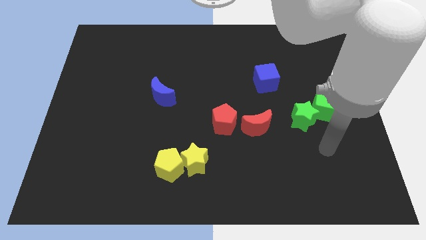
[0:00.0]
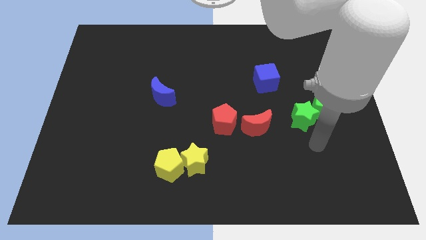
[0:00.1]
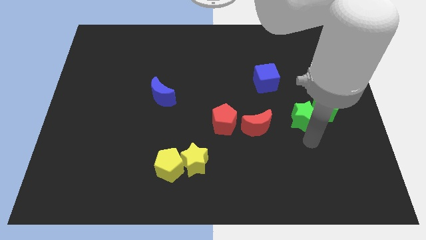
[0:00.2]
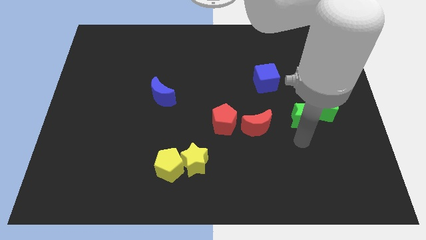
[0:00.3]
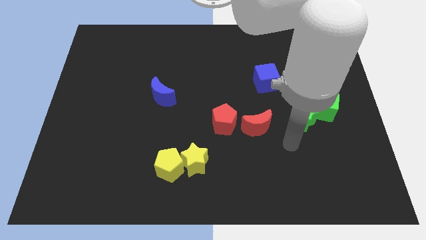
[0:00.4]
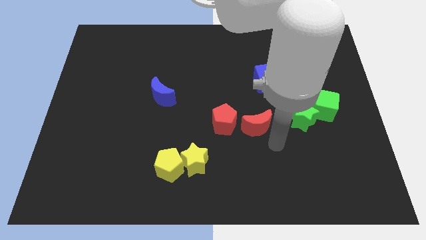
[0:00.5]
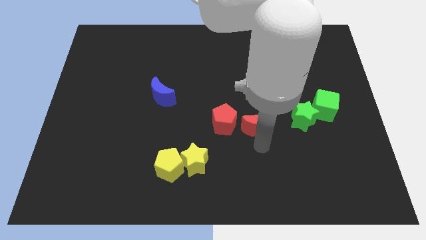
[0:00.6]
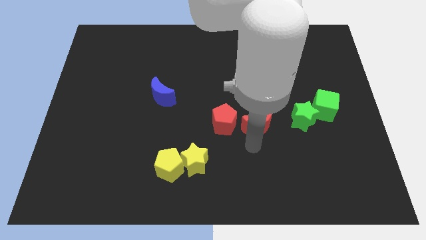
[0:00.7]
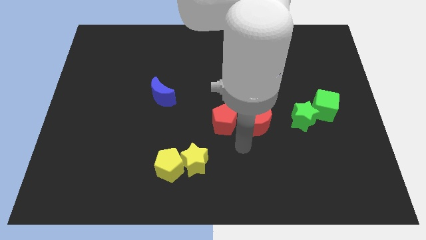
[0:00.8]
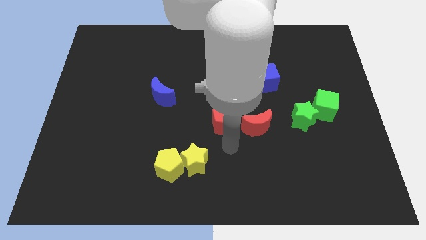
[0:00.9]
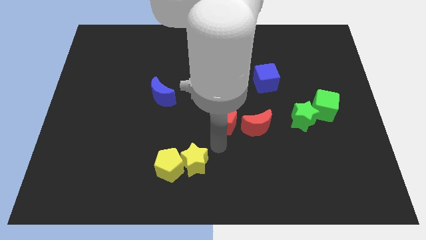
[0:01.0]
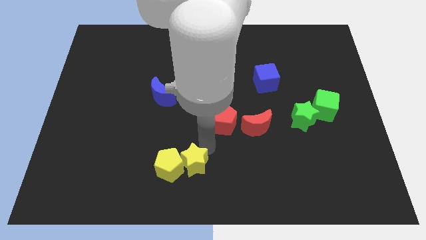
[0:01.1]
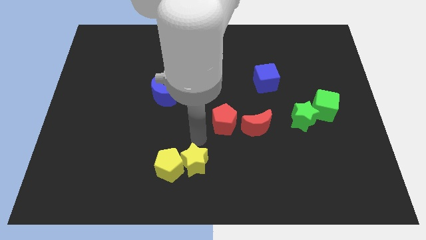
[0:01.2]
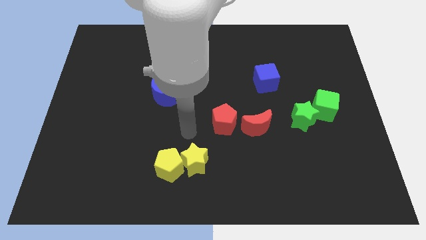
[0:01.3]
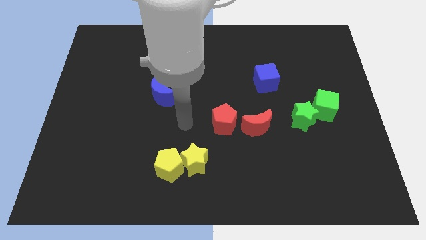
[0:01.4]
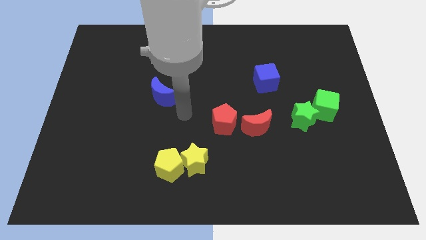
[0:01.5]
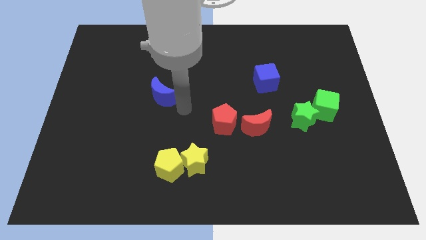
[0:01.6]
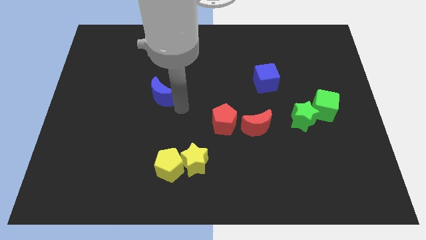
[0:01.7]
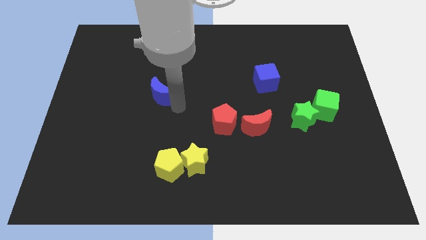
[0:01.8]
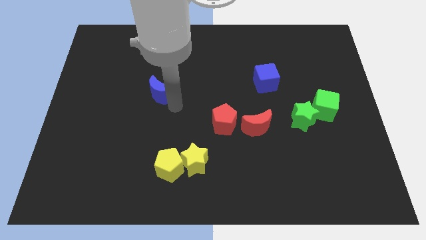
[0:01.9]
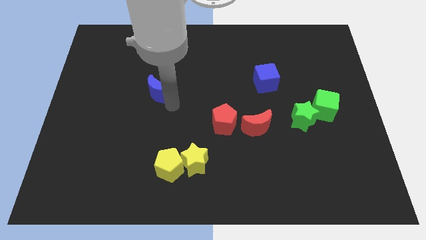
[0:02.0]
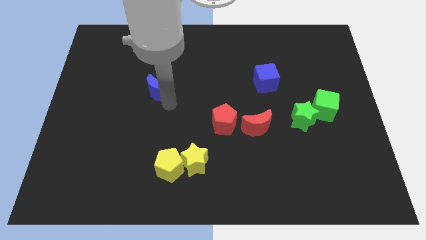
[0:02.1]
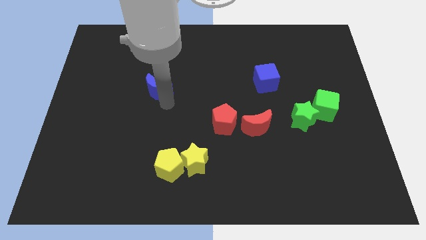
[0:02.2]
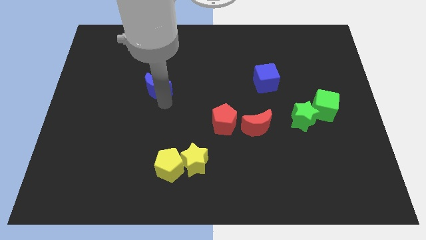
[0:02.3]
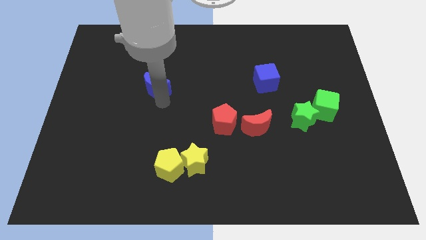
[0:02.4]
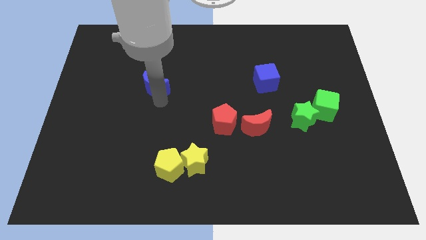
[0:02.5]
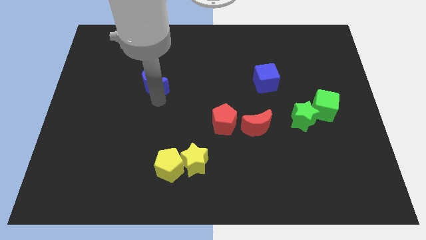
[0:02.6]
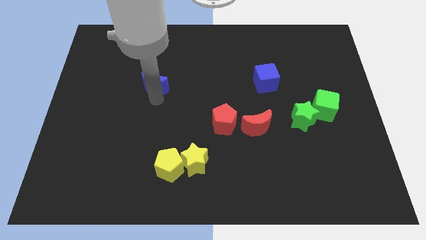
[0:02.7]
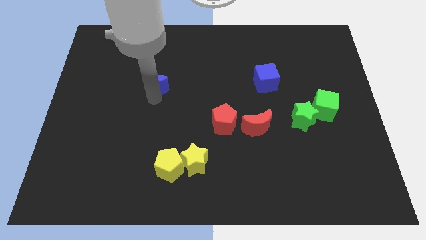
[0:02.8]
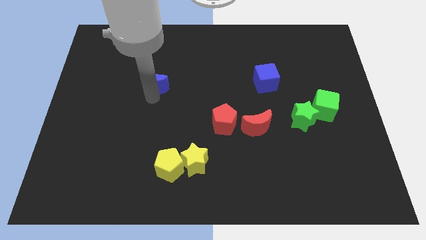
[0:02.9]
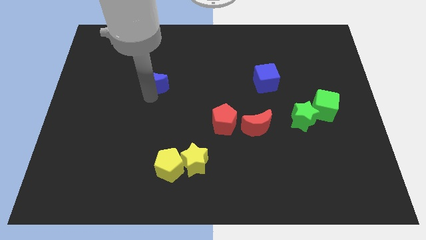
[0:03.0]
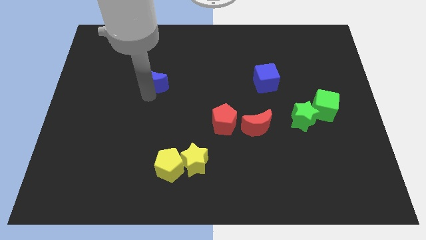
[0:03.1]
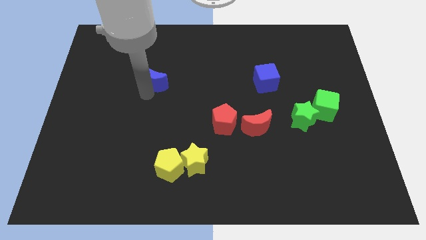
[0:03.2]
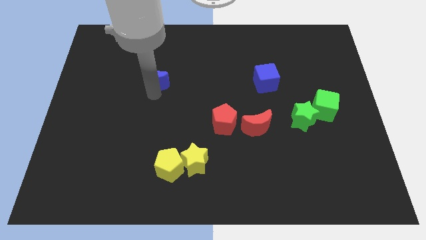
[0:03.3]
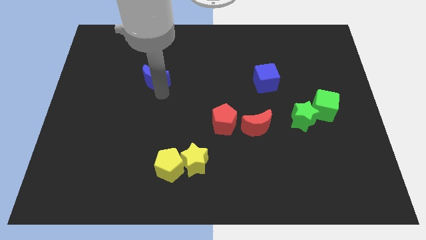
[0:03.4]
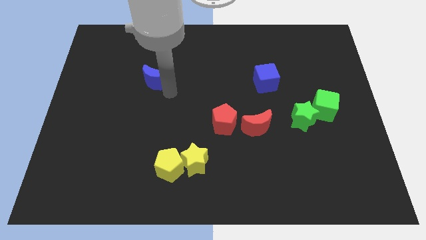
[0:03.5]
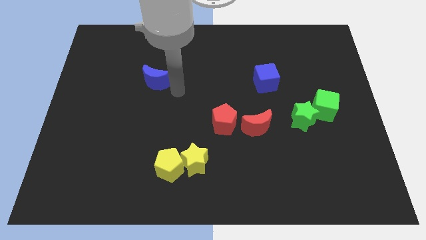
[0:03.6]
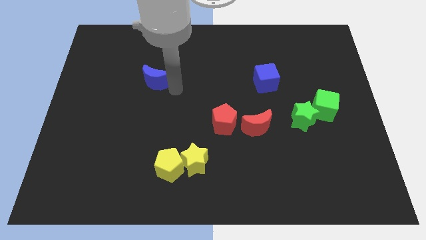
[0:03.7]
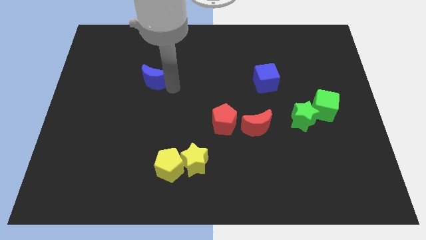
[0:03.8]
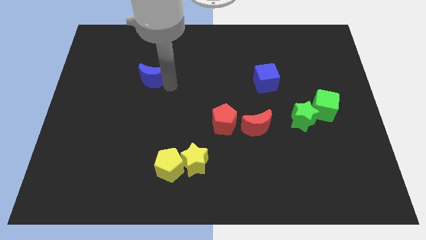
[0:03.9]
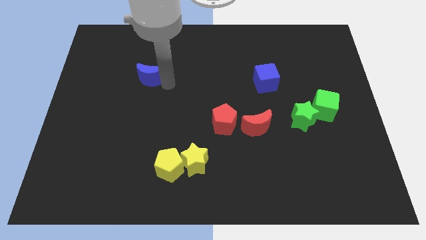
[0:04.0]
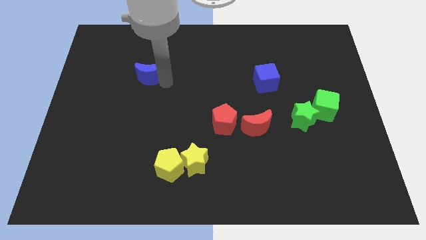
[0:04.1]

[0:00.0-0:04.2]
slide the blue moon upwards and then to the left a little

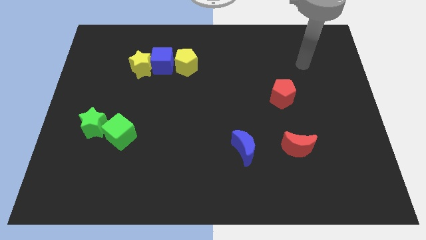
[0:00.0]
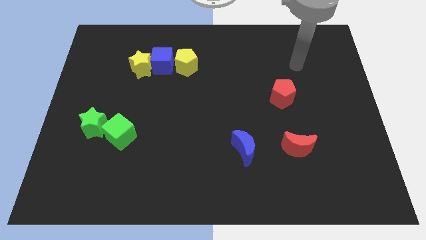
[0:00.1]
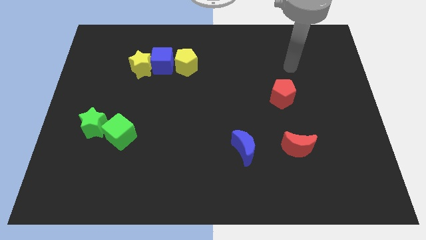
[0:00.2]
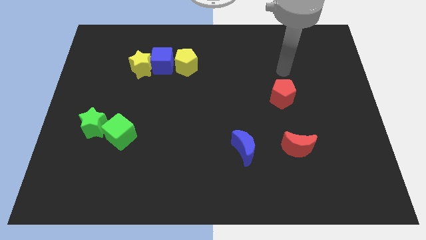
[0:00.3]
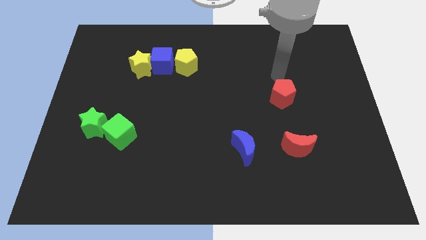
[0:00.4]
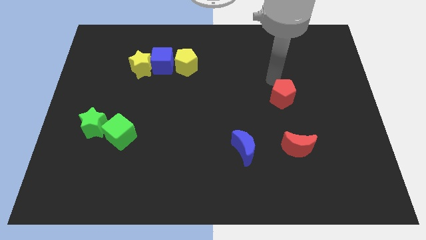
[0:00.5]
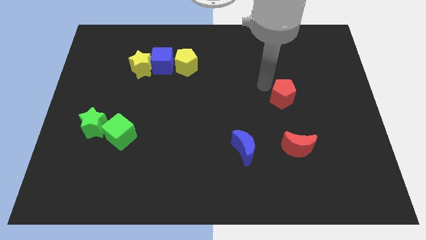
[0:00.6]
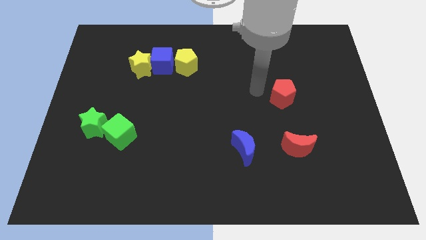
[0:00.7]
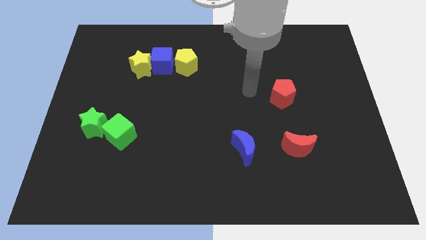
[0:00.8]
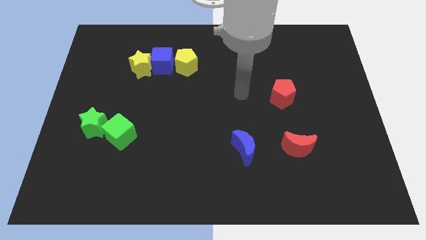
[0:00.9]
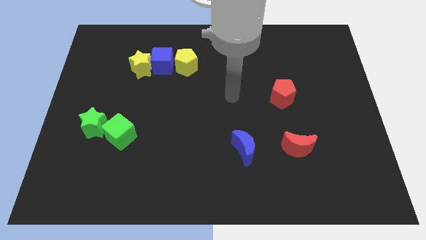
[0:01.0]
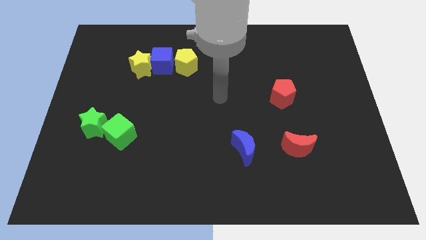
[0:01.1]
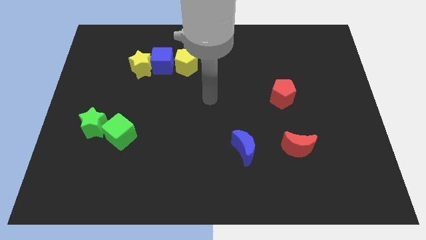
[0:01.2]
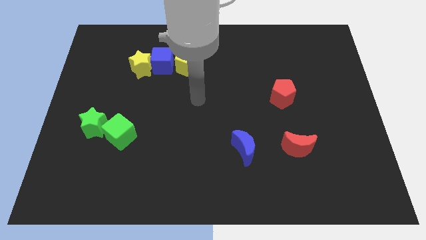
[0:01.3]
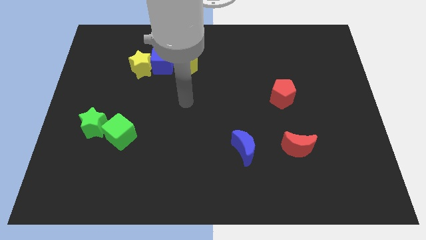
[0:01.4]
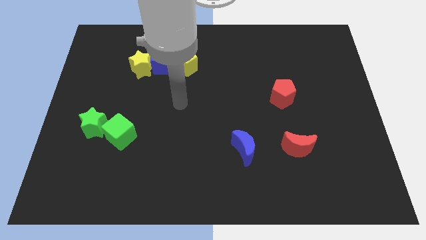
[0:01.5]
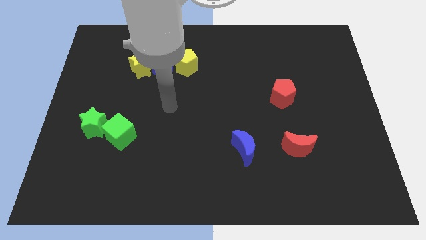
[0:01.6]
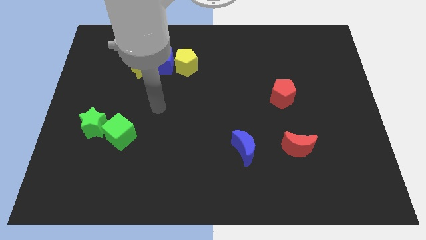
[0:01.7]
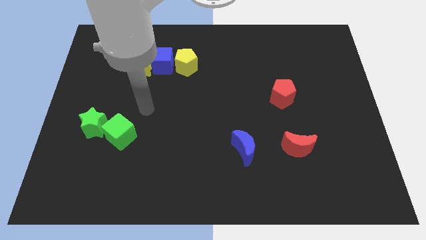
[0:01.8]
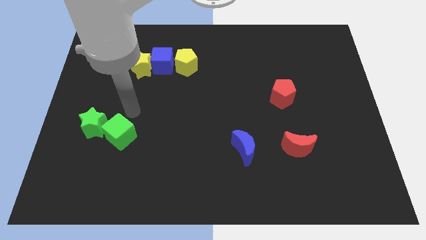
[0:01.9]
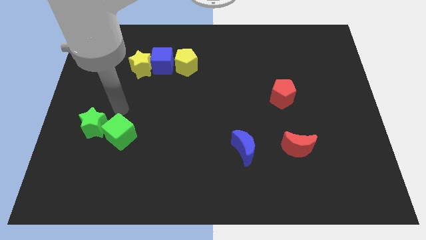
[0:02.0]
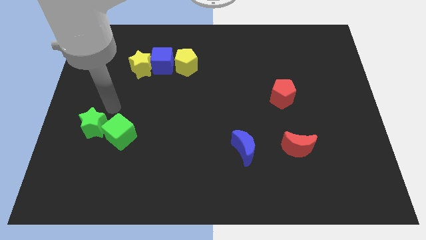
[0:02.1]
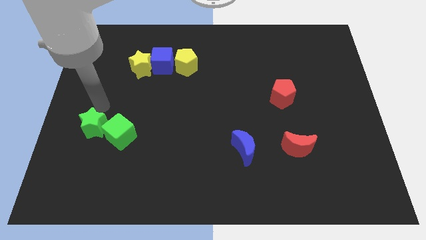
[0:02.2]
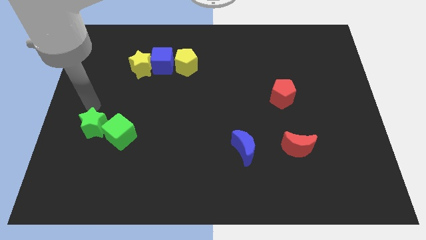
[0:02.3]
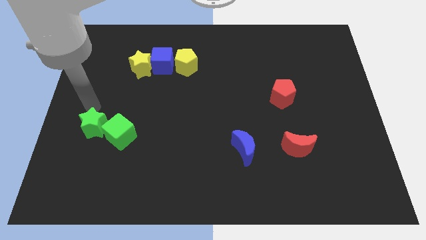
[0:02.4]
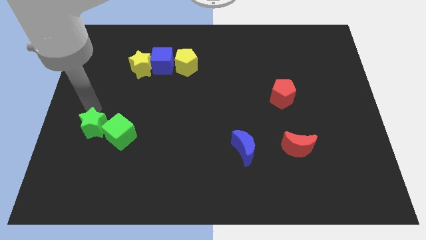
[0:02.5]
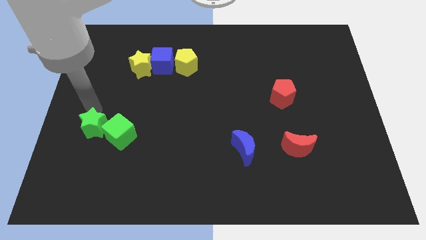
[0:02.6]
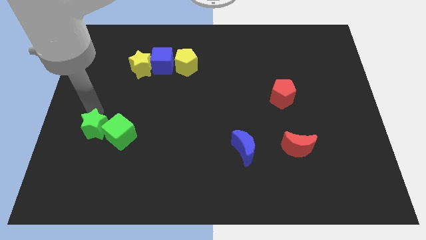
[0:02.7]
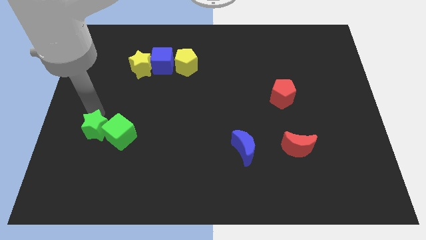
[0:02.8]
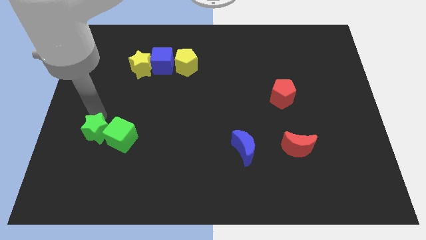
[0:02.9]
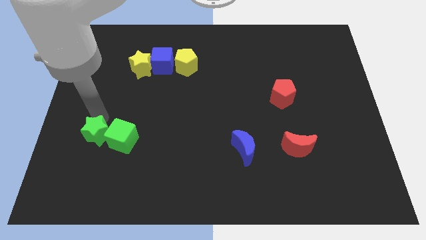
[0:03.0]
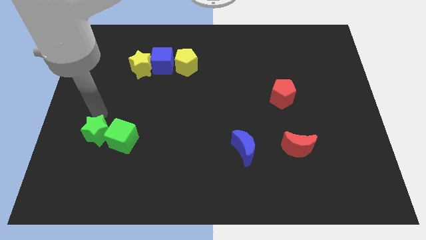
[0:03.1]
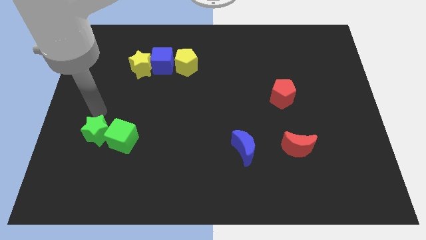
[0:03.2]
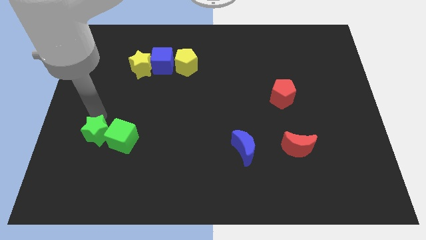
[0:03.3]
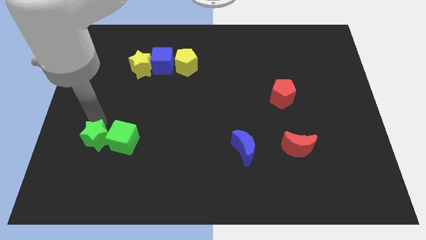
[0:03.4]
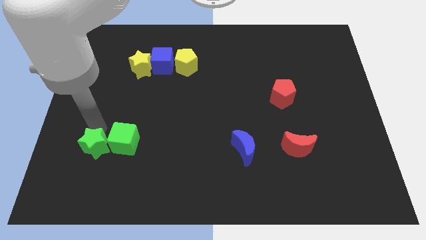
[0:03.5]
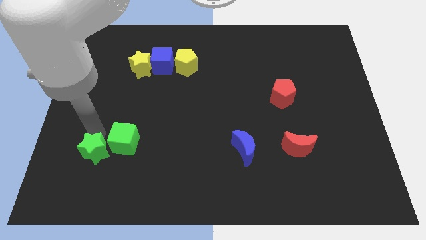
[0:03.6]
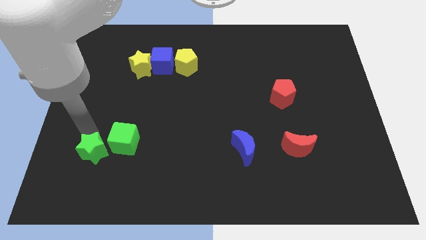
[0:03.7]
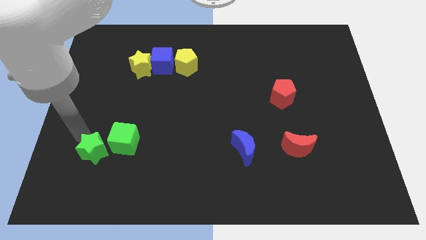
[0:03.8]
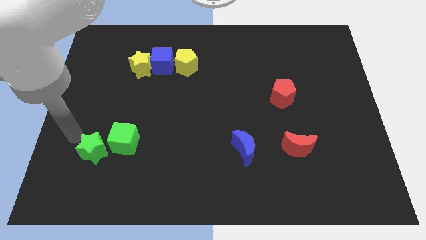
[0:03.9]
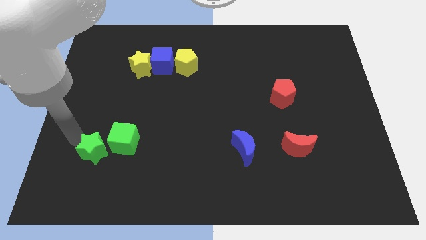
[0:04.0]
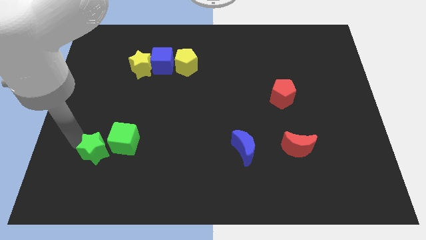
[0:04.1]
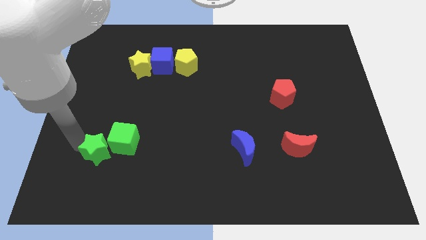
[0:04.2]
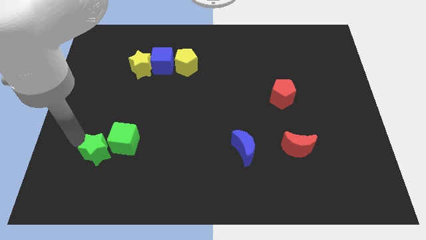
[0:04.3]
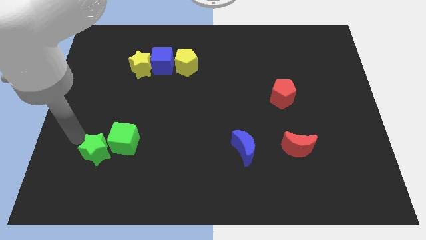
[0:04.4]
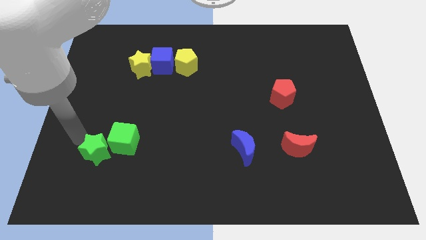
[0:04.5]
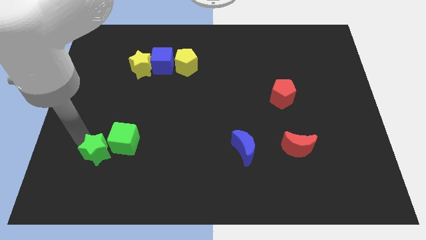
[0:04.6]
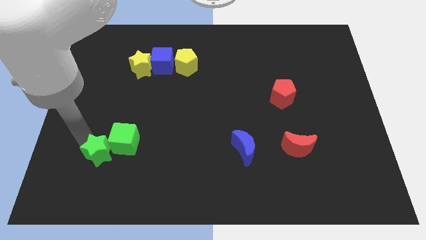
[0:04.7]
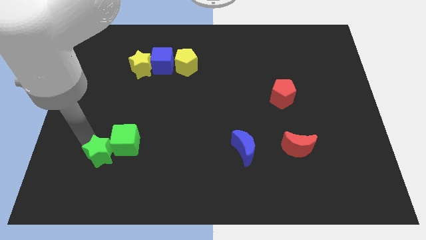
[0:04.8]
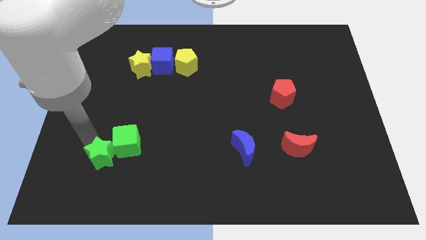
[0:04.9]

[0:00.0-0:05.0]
push the green star slightly downwards and to the right diagonally
